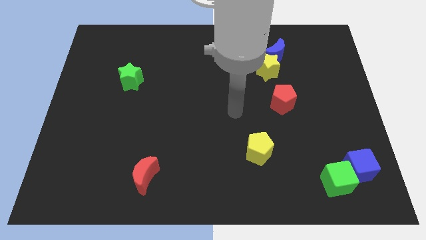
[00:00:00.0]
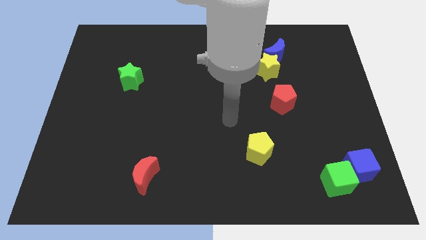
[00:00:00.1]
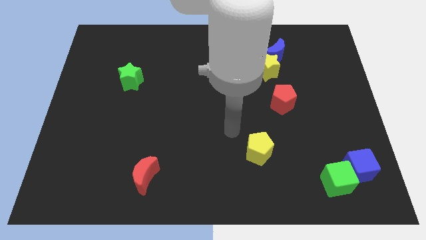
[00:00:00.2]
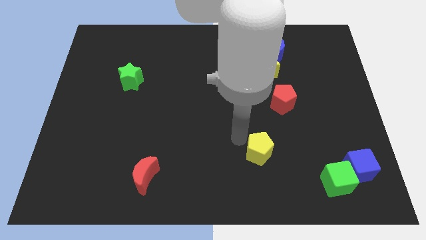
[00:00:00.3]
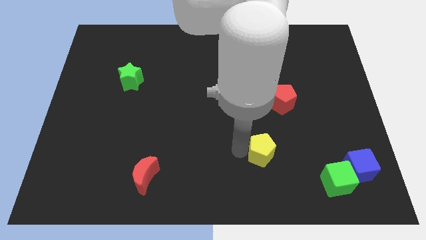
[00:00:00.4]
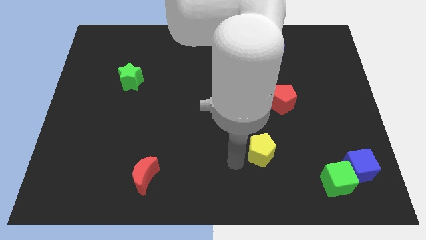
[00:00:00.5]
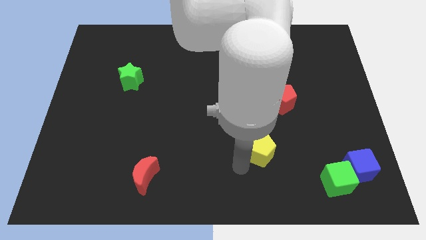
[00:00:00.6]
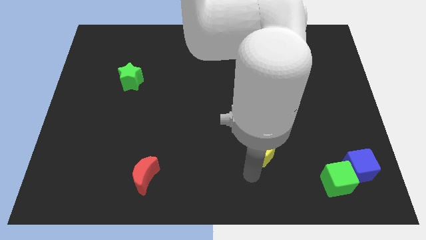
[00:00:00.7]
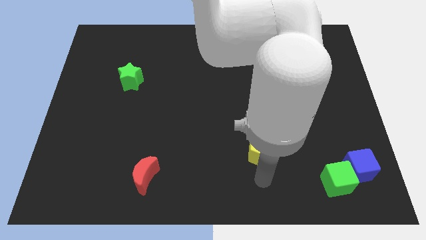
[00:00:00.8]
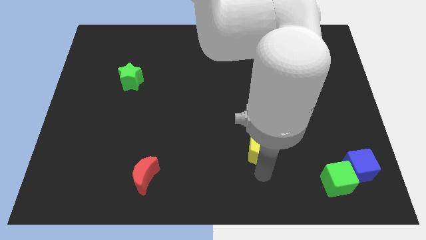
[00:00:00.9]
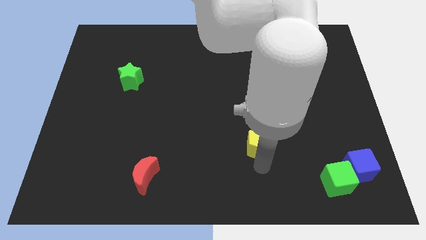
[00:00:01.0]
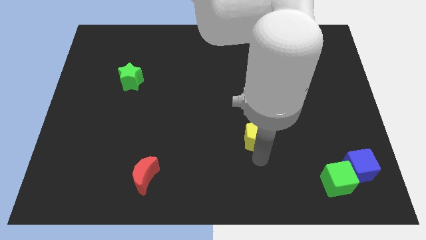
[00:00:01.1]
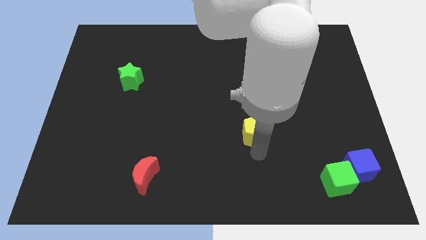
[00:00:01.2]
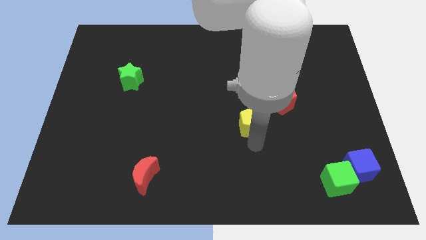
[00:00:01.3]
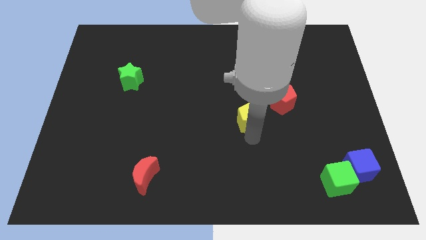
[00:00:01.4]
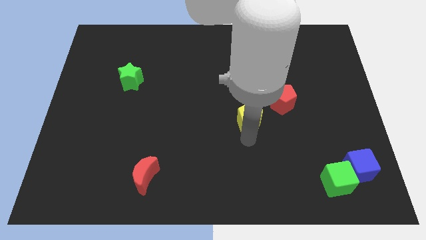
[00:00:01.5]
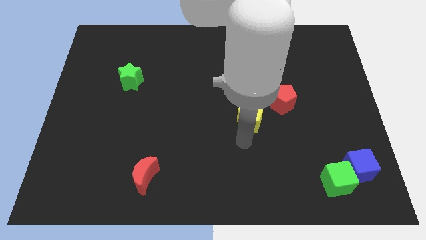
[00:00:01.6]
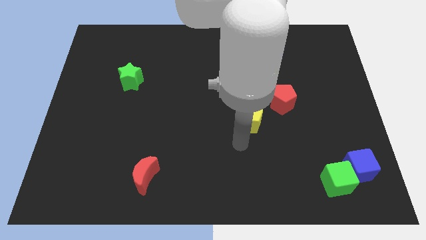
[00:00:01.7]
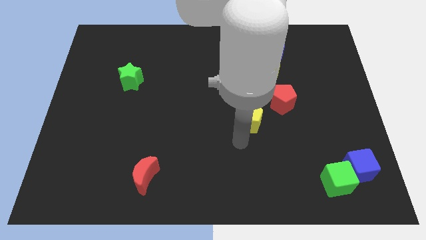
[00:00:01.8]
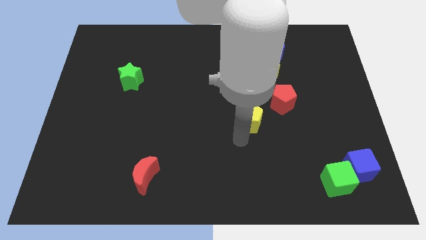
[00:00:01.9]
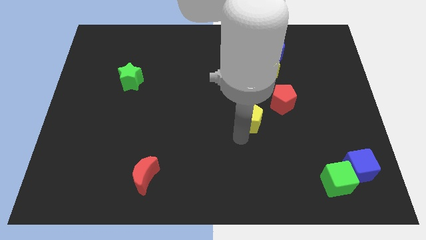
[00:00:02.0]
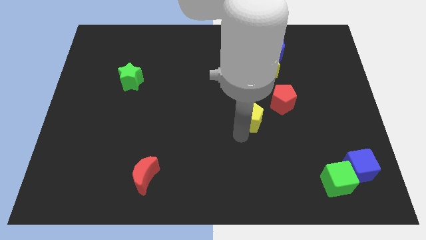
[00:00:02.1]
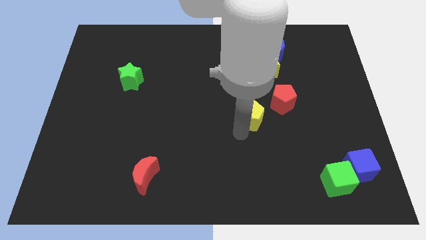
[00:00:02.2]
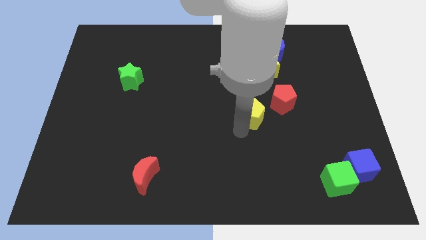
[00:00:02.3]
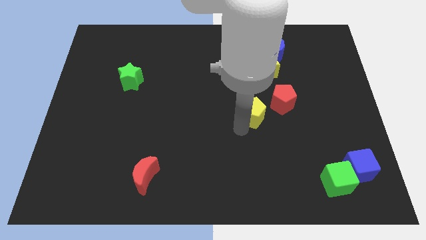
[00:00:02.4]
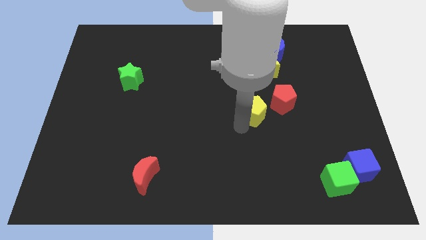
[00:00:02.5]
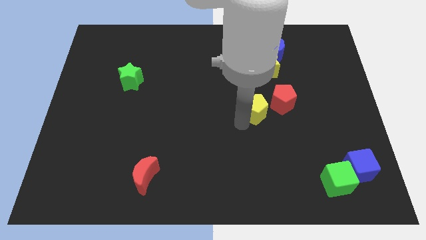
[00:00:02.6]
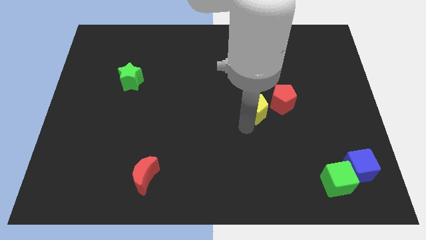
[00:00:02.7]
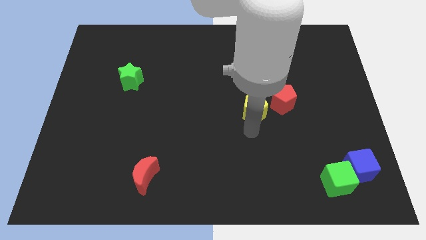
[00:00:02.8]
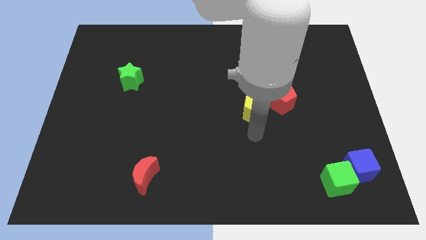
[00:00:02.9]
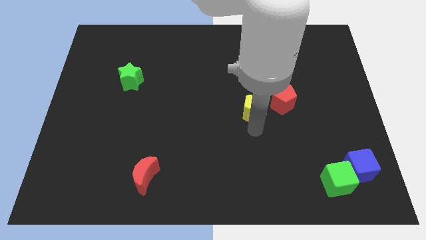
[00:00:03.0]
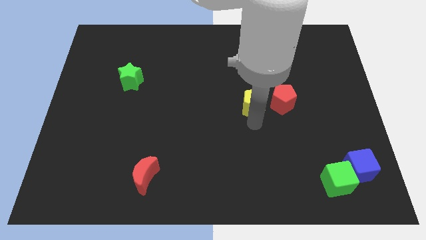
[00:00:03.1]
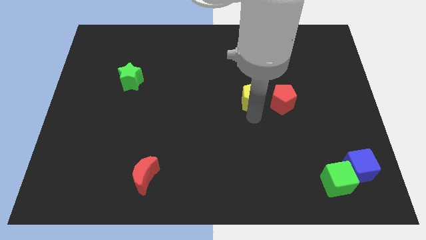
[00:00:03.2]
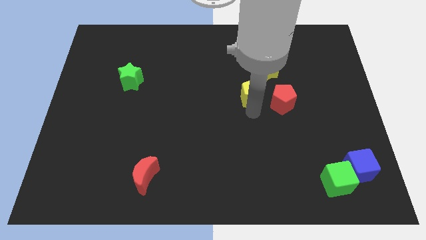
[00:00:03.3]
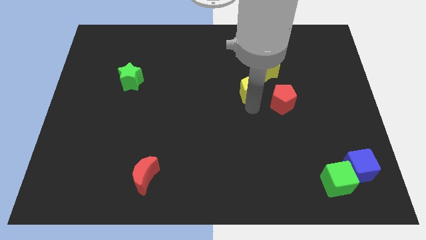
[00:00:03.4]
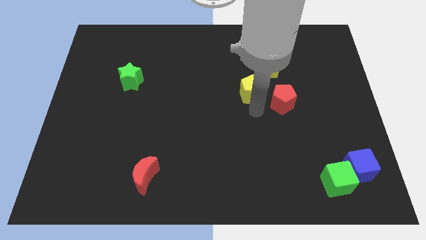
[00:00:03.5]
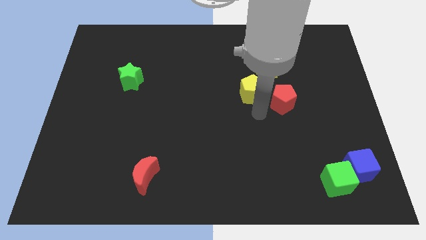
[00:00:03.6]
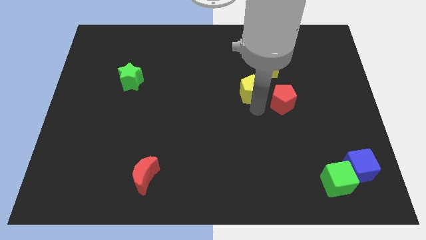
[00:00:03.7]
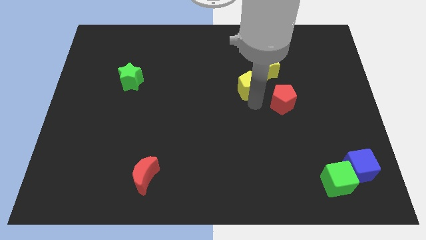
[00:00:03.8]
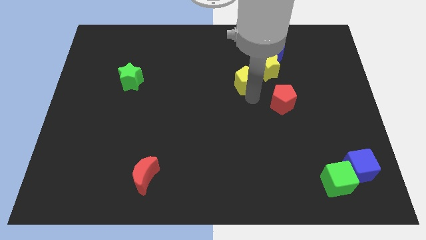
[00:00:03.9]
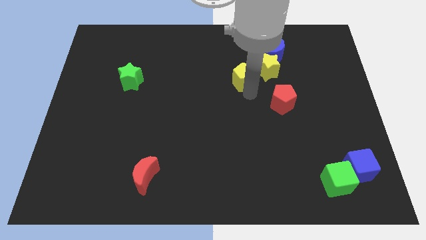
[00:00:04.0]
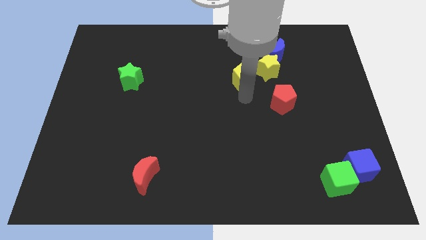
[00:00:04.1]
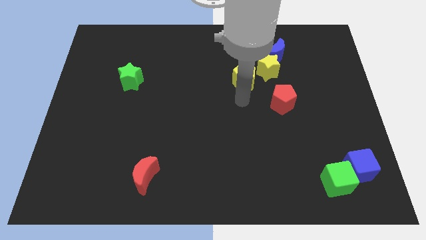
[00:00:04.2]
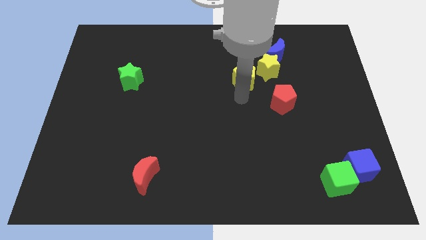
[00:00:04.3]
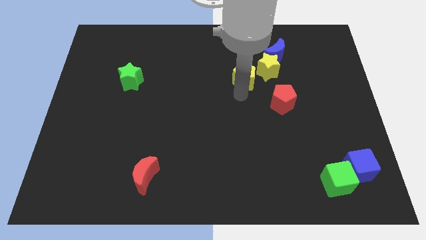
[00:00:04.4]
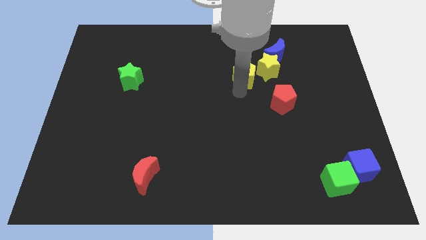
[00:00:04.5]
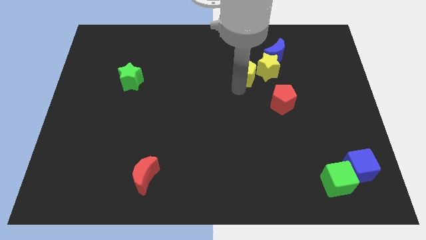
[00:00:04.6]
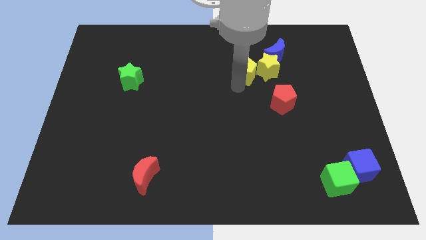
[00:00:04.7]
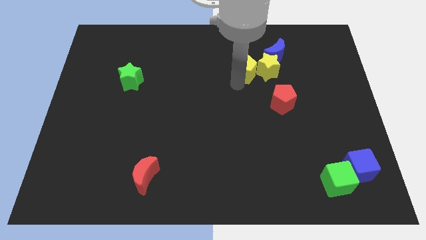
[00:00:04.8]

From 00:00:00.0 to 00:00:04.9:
put the yellow pentagon to the top left side of the yellow star

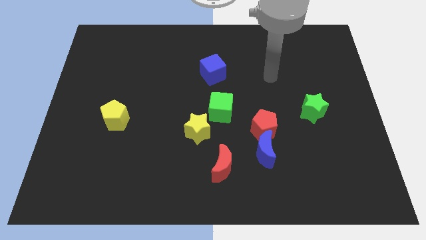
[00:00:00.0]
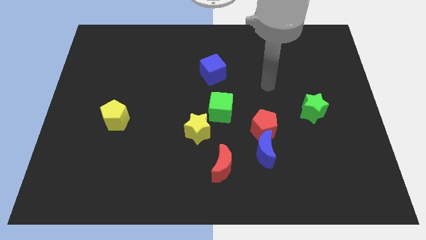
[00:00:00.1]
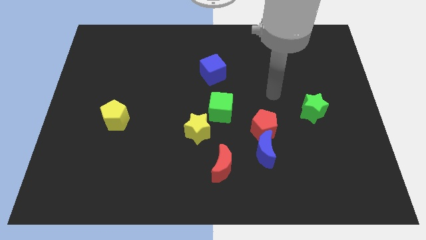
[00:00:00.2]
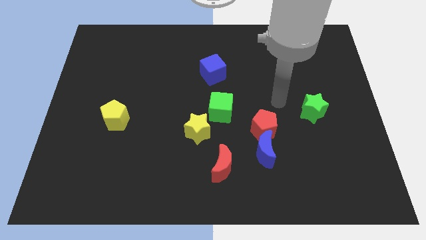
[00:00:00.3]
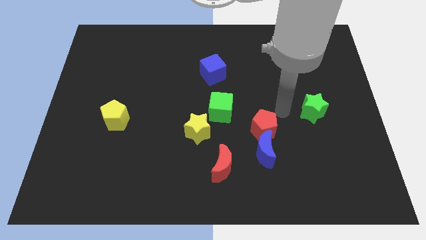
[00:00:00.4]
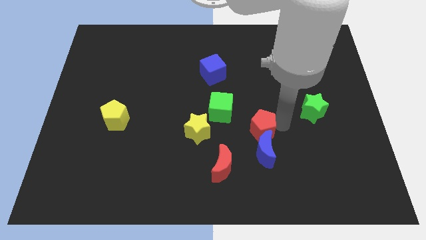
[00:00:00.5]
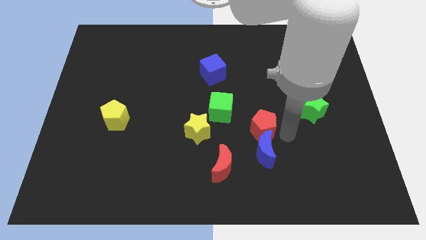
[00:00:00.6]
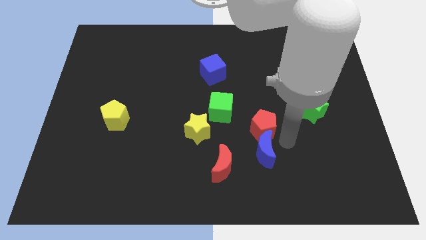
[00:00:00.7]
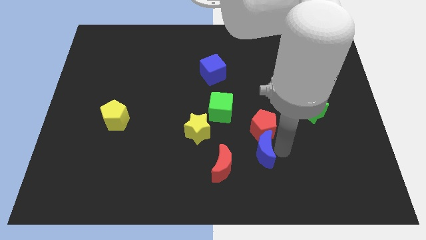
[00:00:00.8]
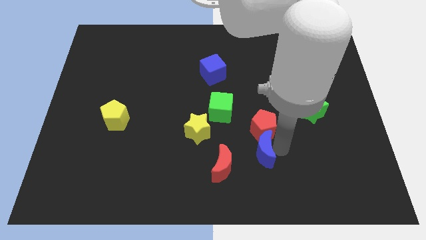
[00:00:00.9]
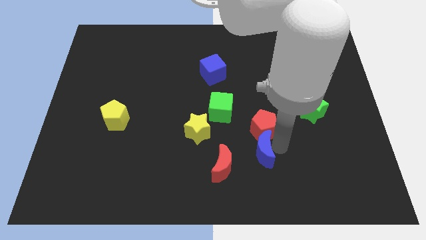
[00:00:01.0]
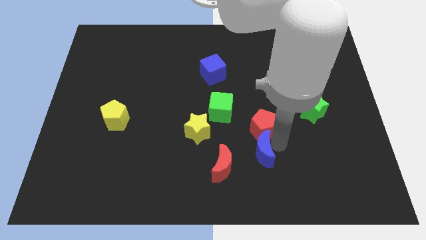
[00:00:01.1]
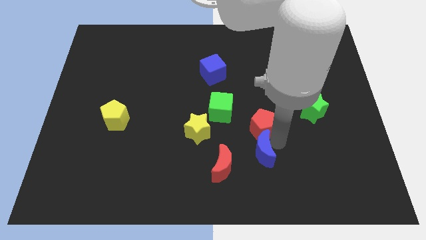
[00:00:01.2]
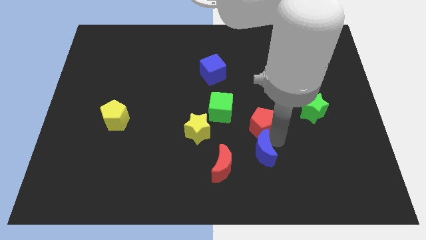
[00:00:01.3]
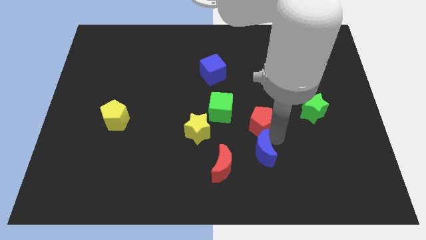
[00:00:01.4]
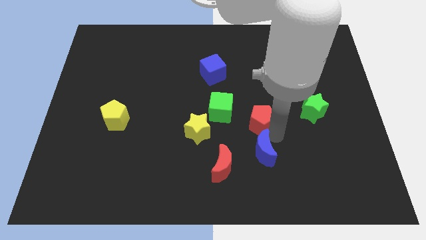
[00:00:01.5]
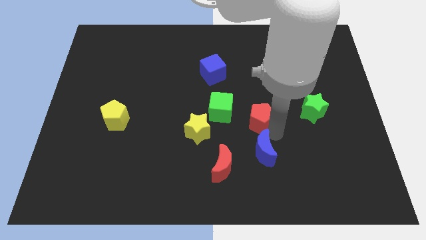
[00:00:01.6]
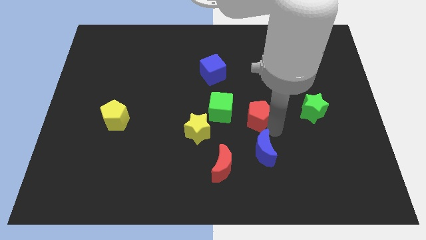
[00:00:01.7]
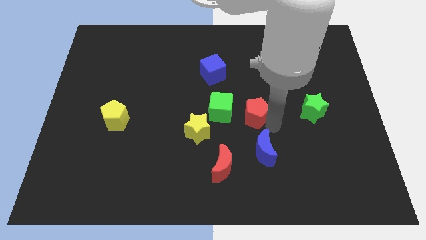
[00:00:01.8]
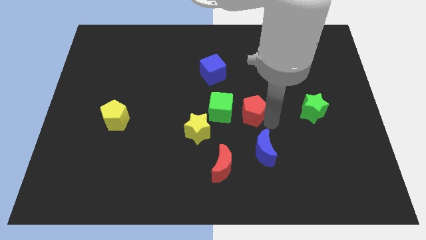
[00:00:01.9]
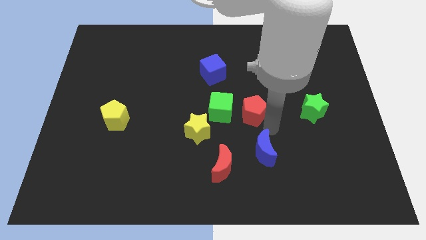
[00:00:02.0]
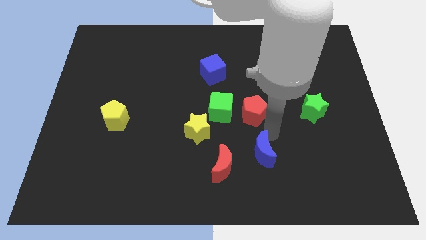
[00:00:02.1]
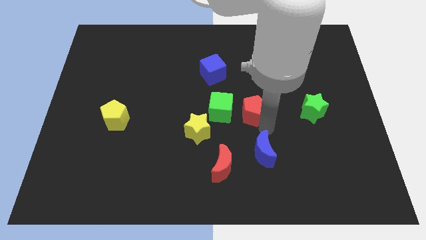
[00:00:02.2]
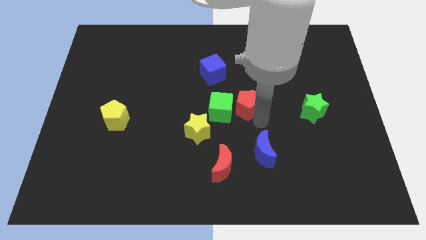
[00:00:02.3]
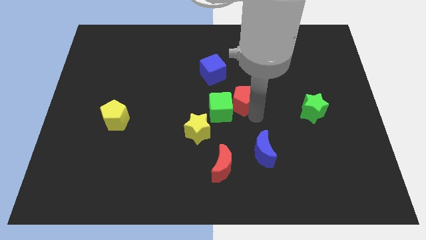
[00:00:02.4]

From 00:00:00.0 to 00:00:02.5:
move the red pentagon to the bottom right of the blue cube

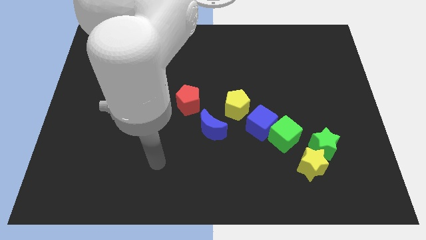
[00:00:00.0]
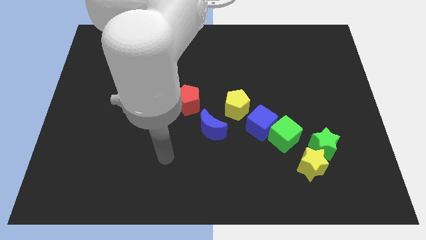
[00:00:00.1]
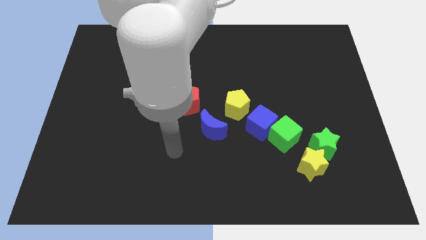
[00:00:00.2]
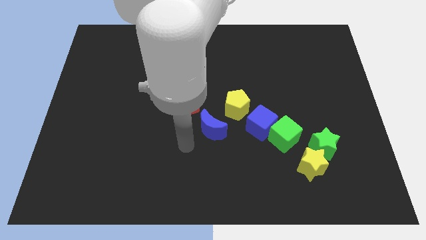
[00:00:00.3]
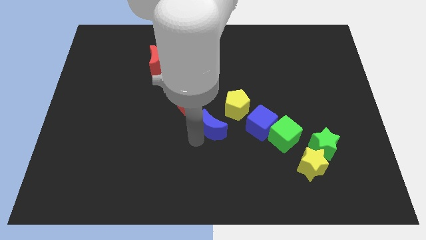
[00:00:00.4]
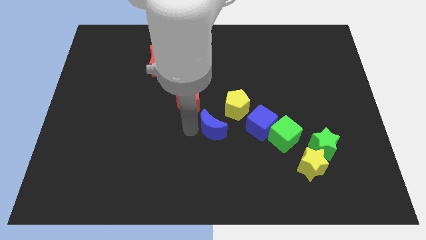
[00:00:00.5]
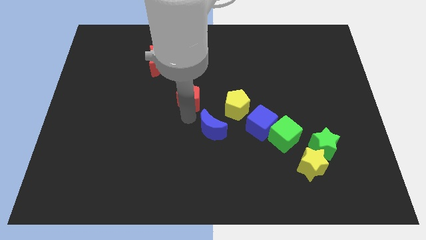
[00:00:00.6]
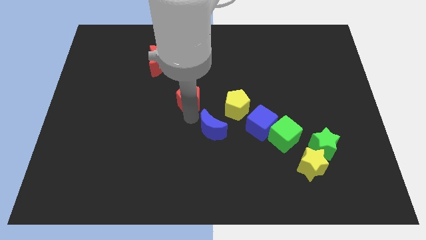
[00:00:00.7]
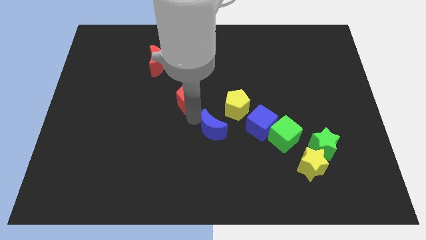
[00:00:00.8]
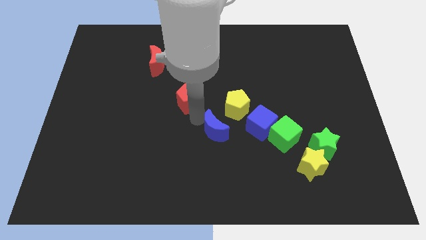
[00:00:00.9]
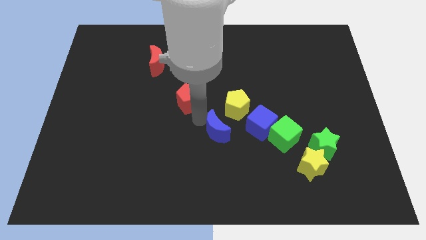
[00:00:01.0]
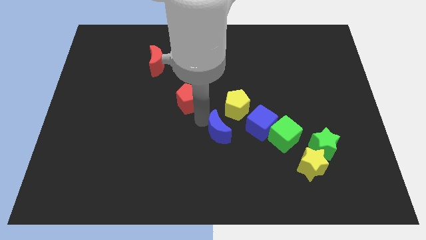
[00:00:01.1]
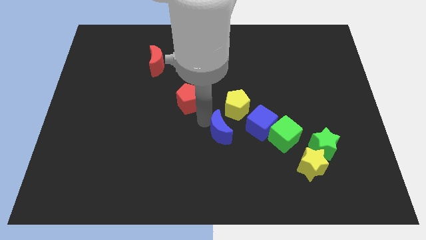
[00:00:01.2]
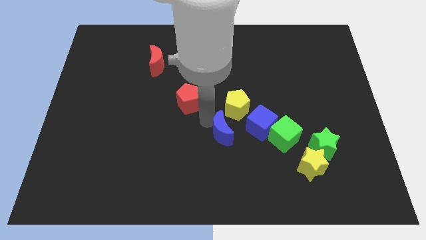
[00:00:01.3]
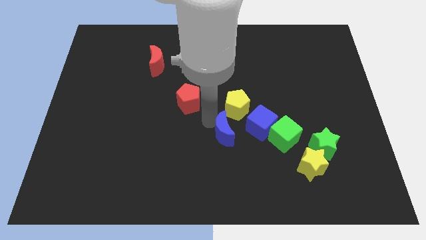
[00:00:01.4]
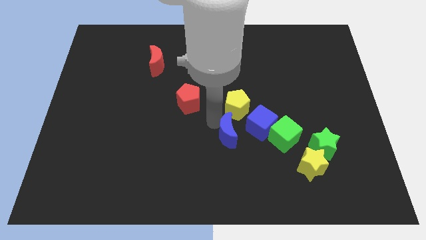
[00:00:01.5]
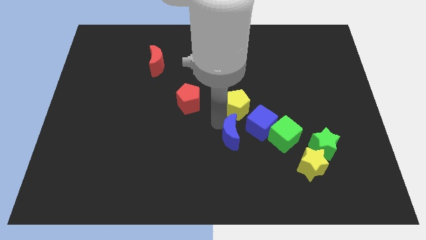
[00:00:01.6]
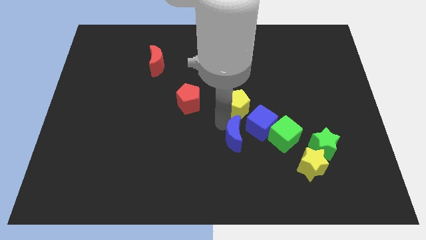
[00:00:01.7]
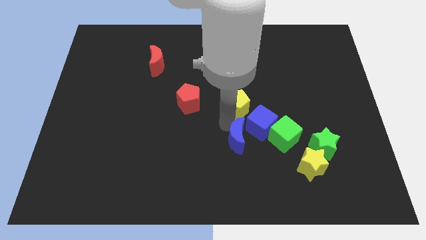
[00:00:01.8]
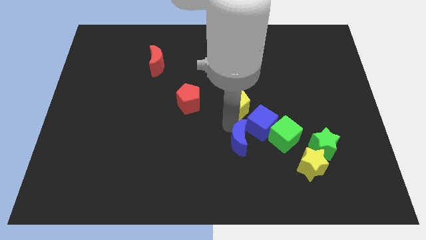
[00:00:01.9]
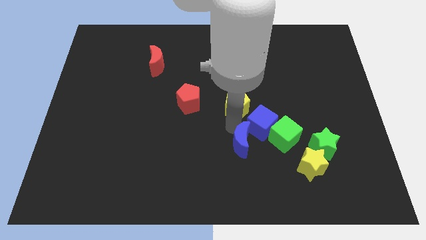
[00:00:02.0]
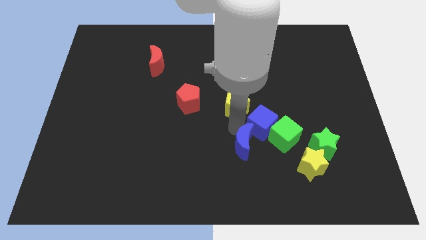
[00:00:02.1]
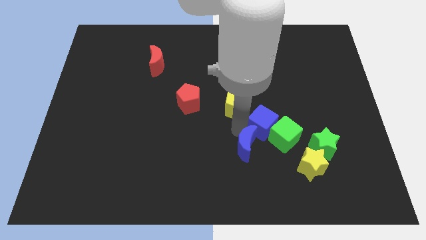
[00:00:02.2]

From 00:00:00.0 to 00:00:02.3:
put the blue moon diagonally down and to the left of the green cube
